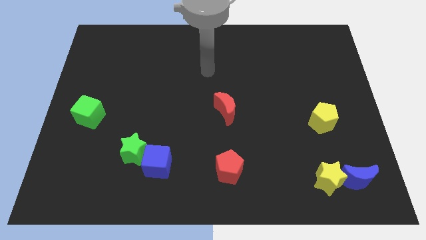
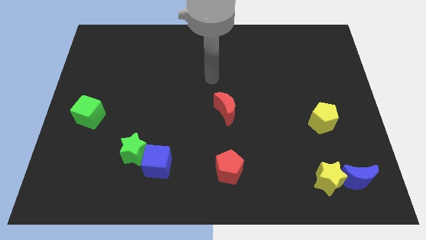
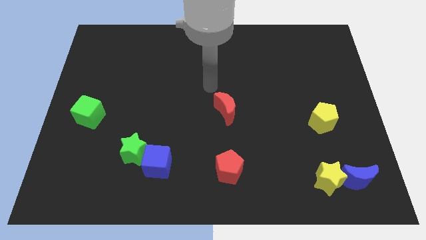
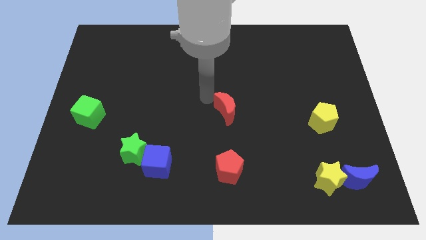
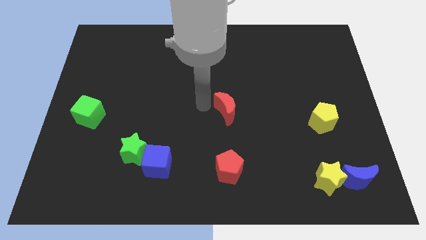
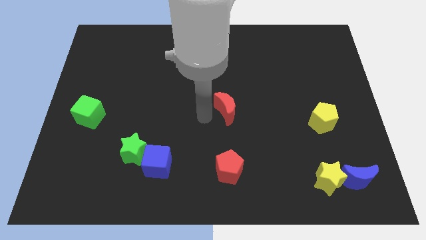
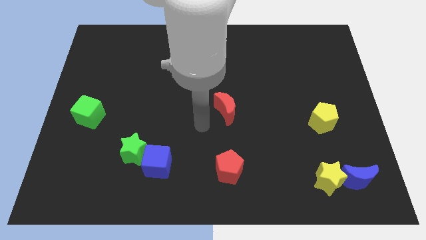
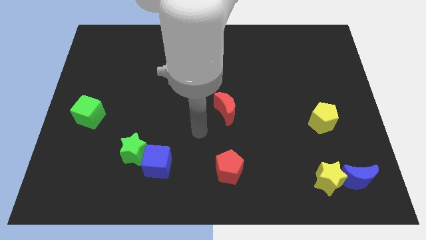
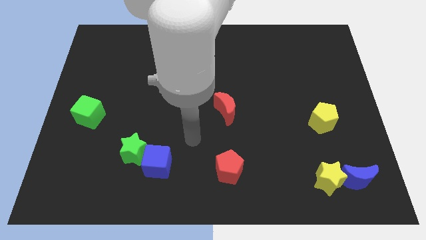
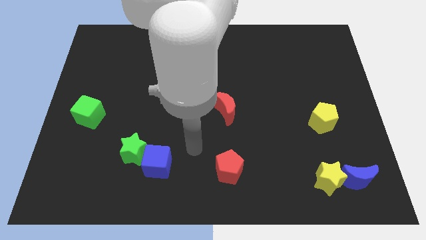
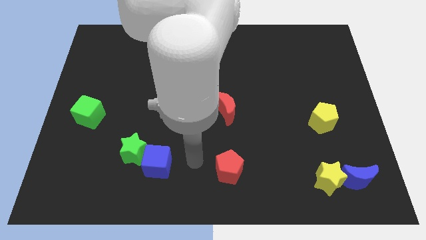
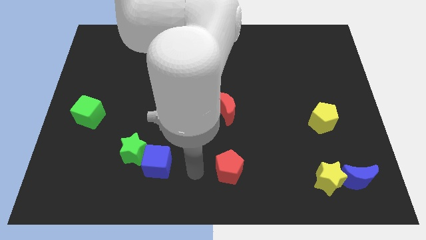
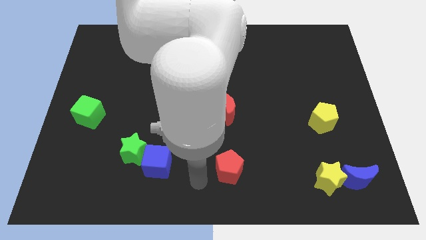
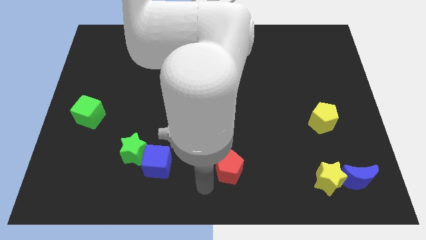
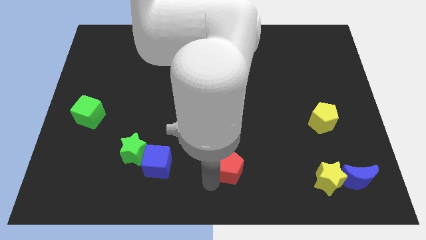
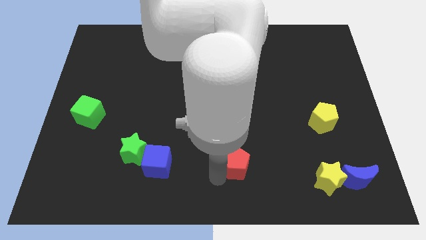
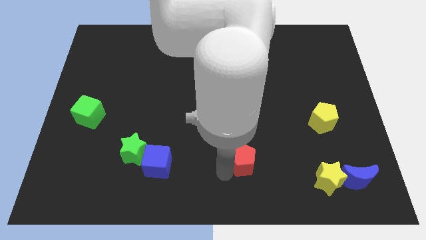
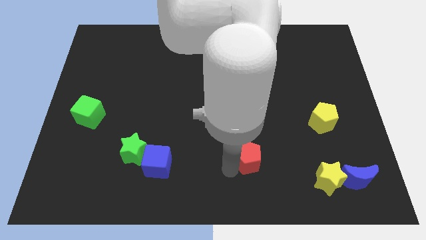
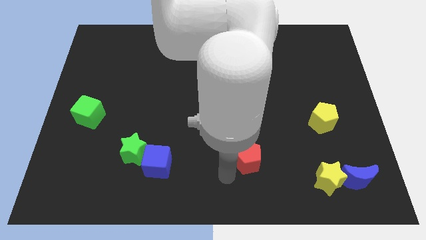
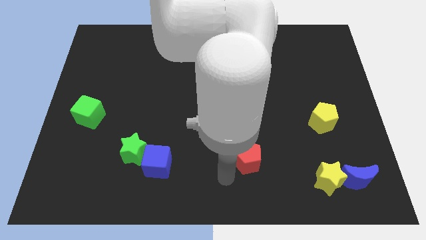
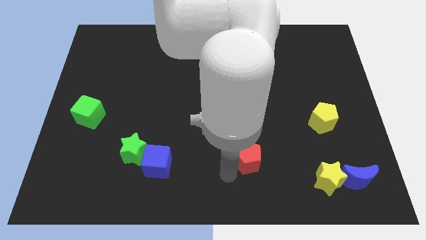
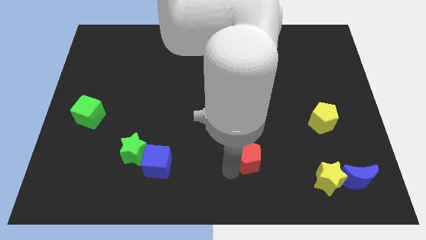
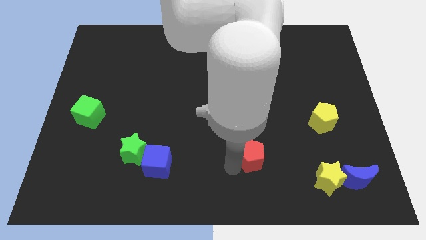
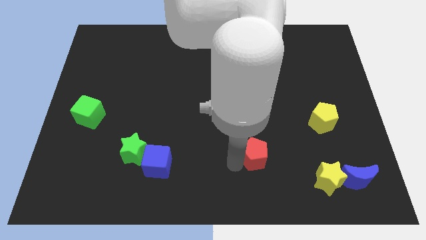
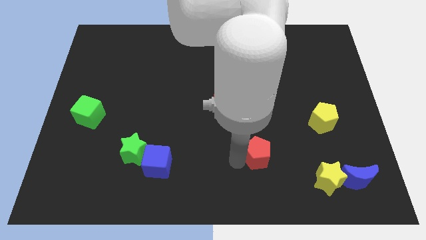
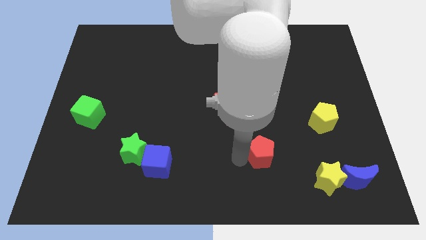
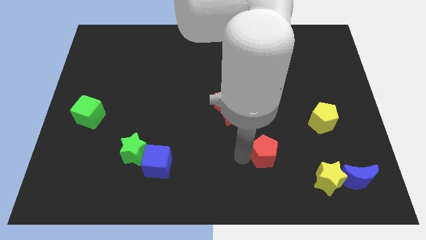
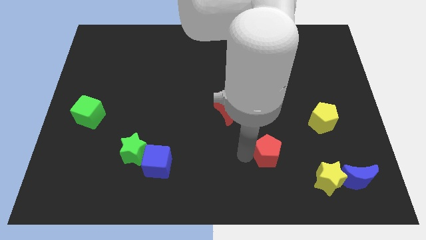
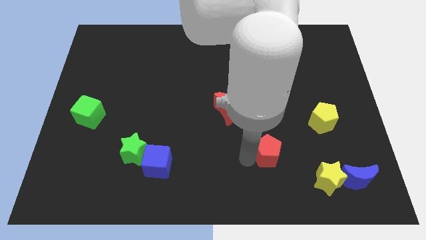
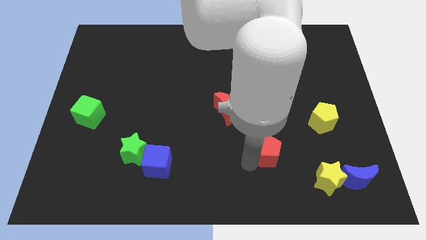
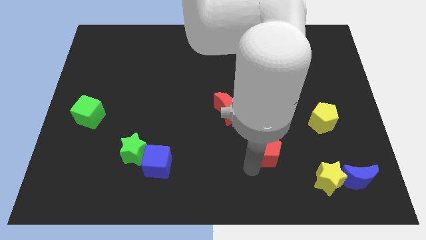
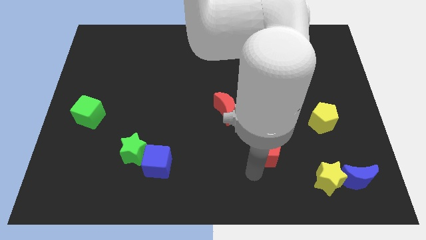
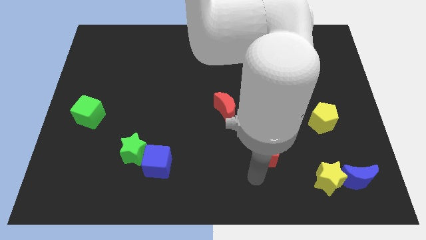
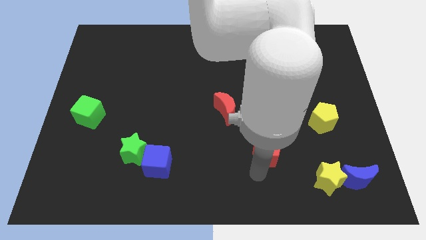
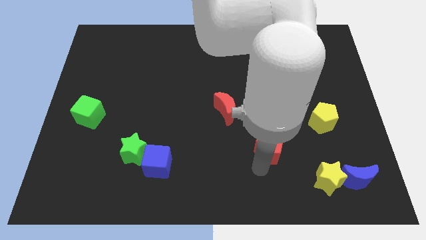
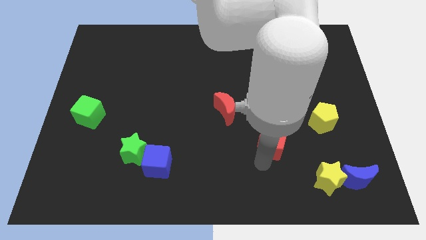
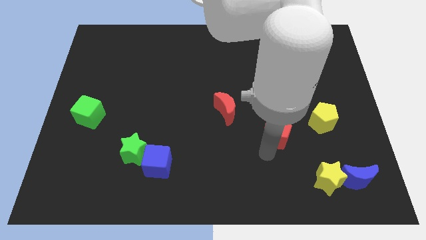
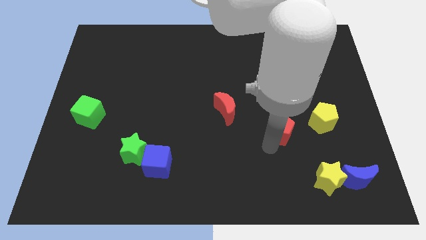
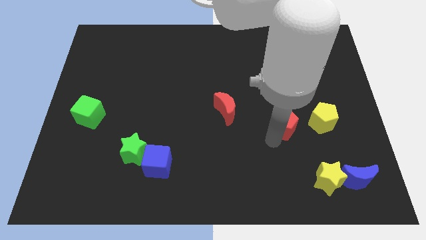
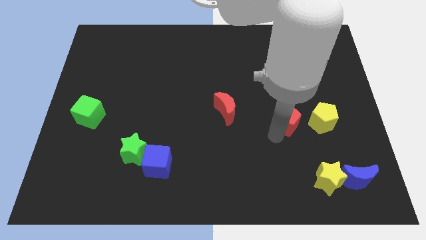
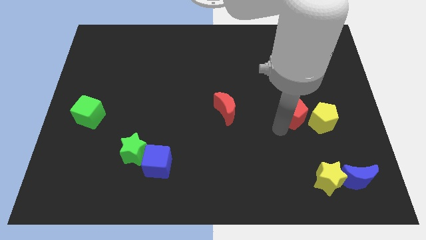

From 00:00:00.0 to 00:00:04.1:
slide the red pentagon upwards and to the right diagonally

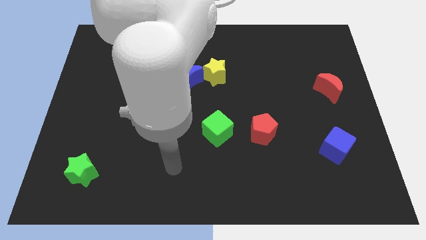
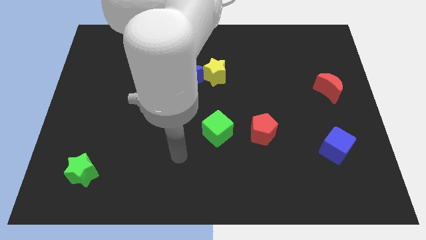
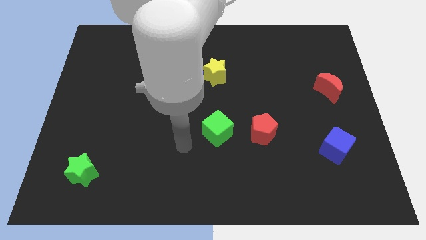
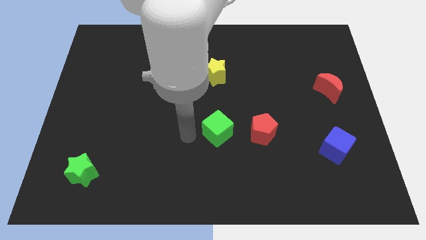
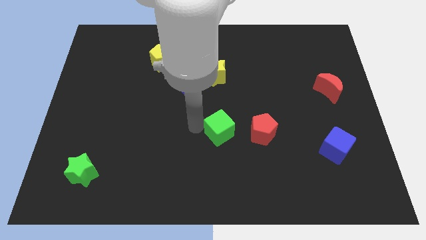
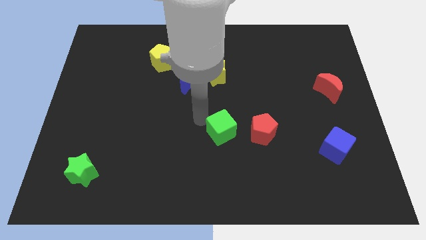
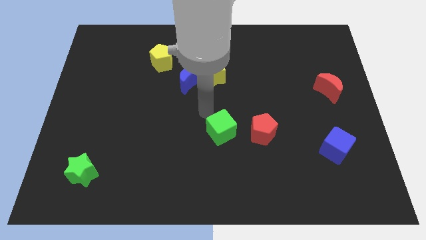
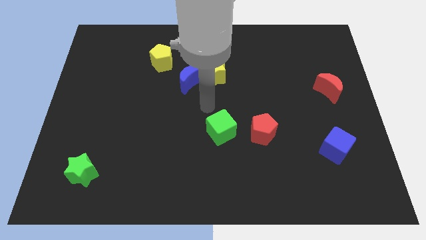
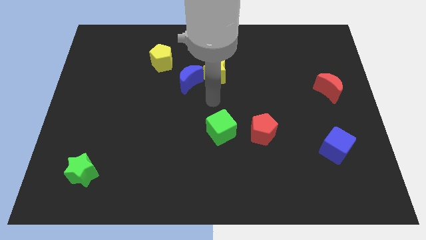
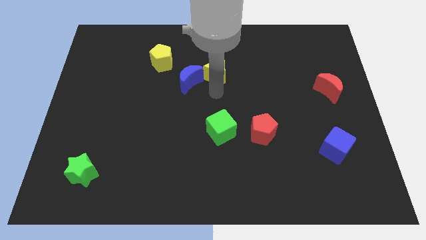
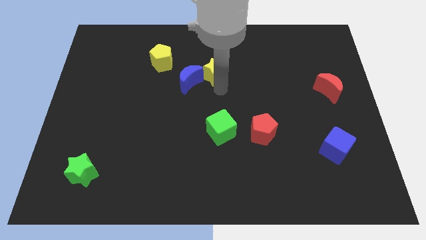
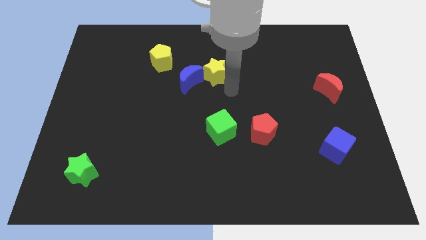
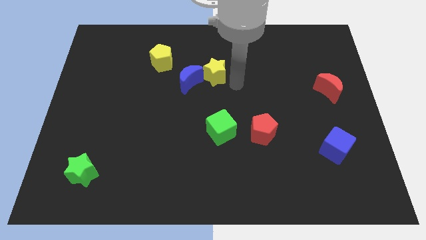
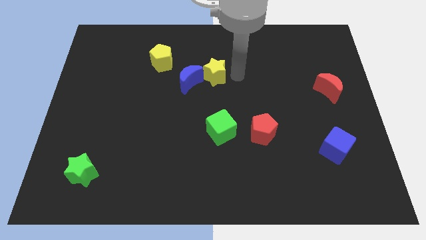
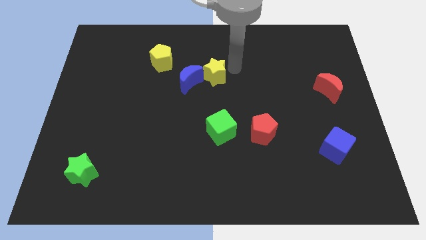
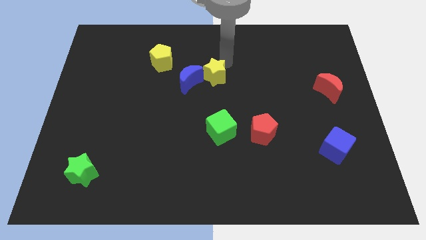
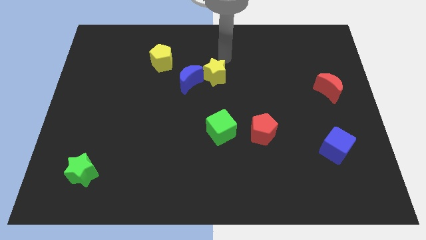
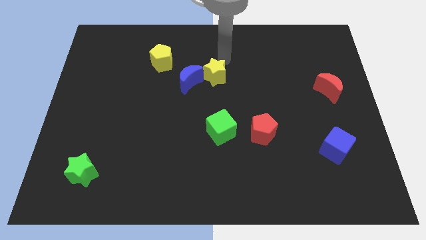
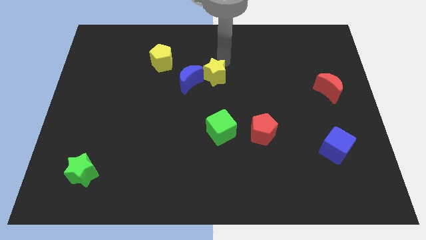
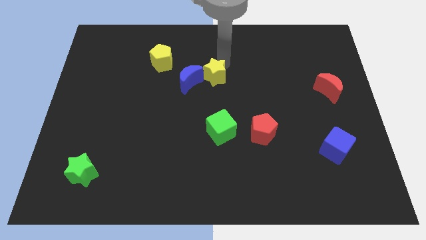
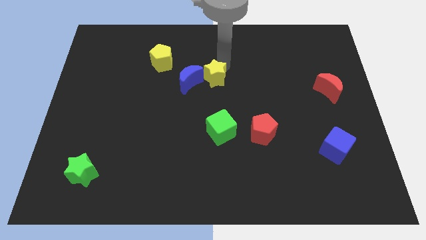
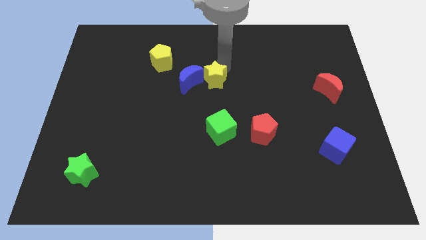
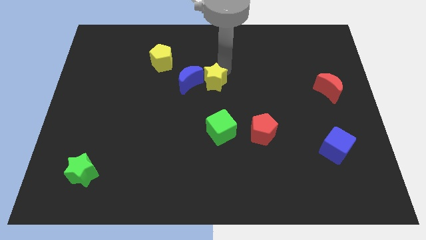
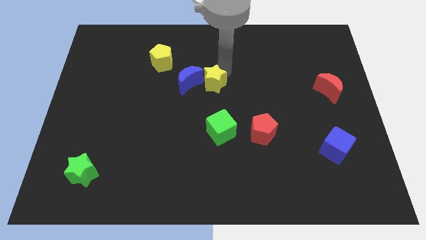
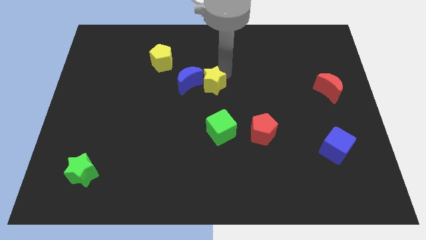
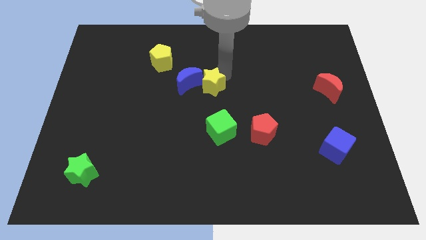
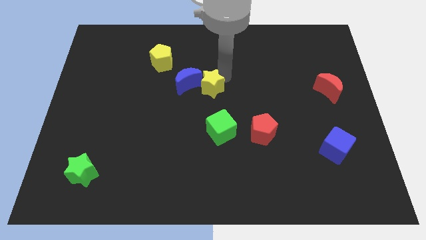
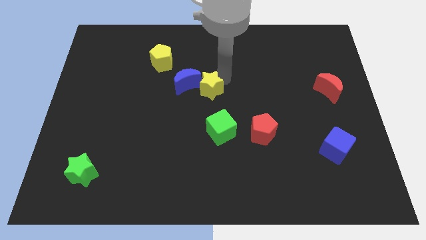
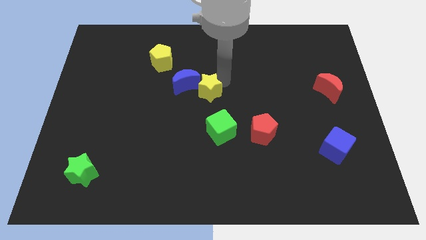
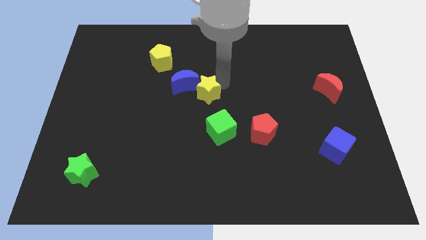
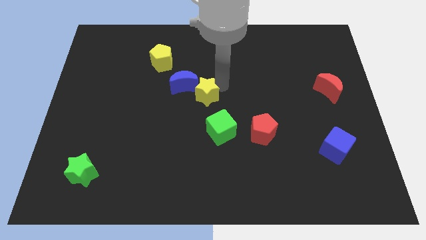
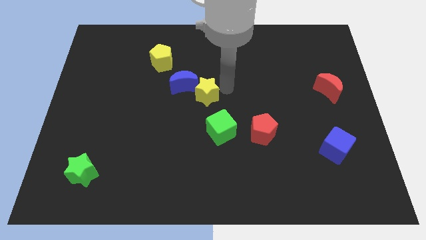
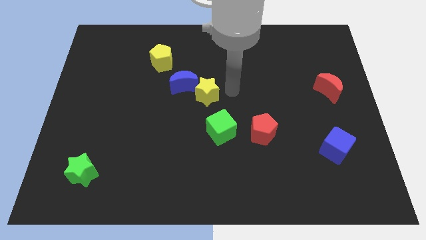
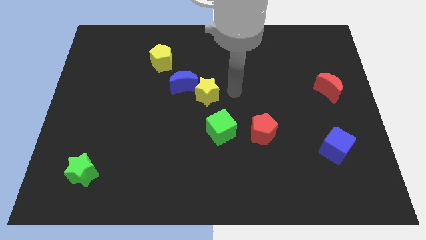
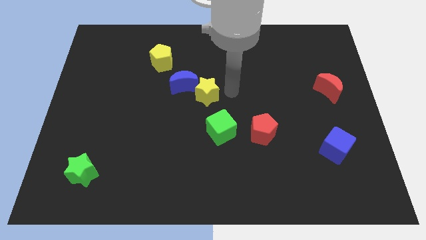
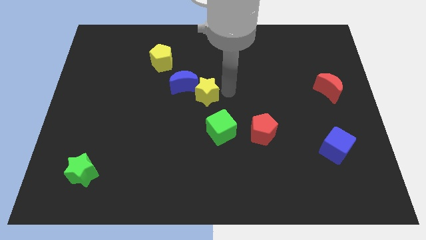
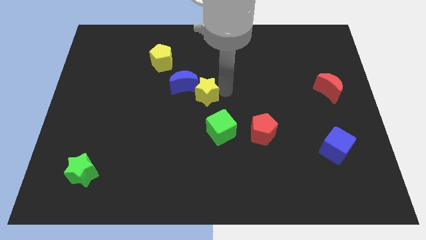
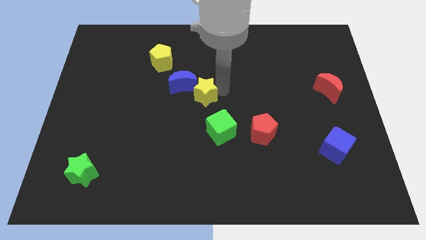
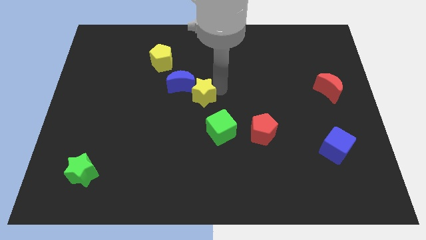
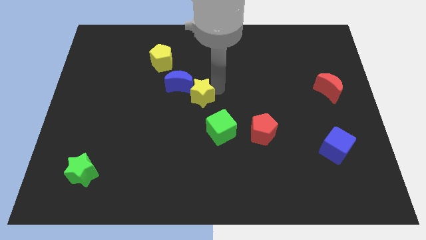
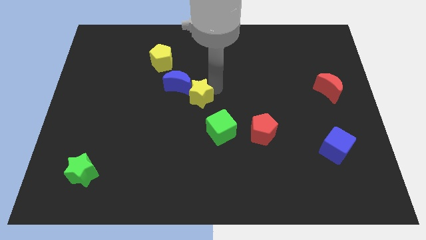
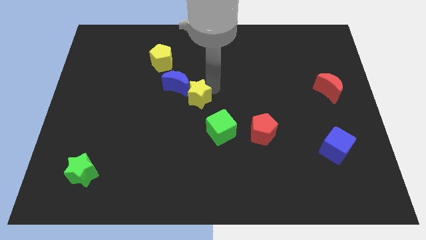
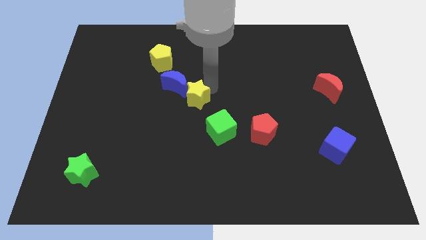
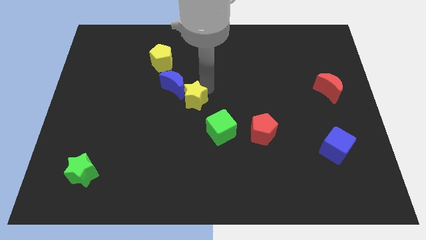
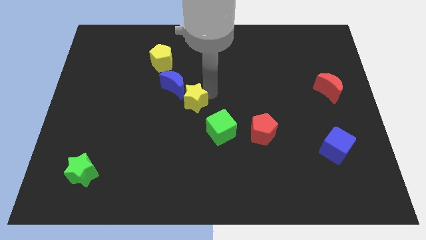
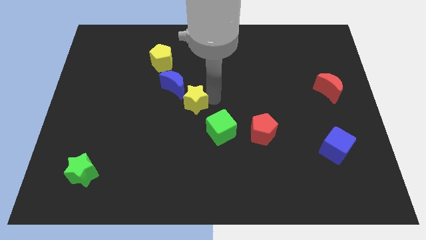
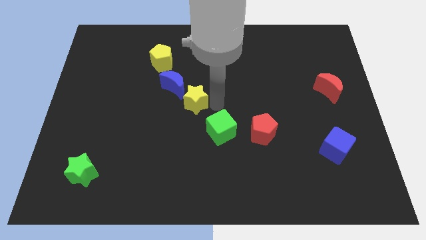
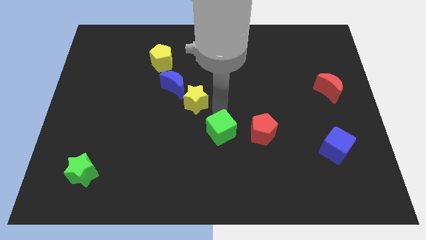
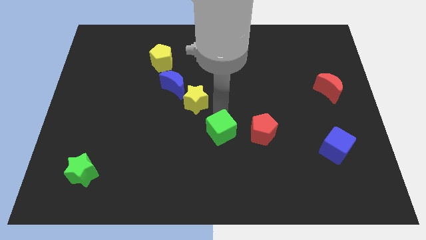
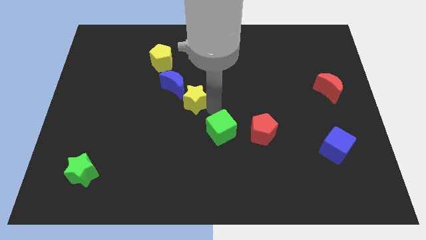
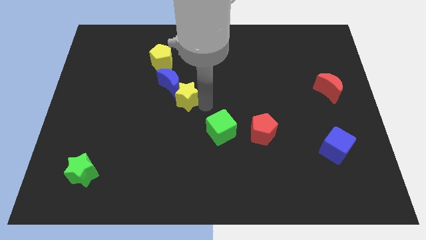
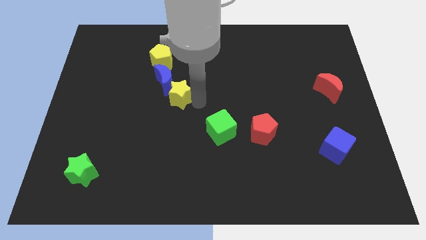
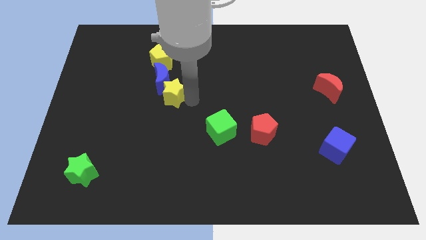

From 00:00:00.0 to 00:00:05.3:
slide the yellow star left slightly
